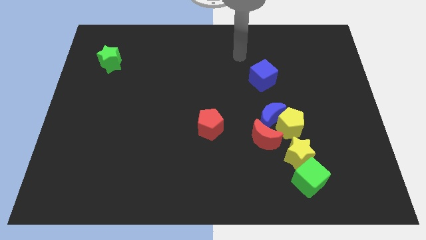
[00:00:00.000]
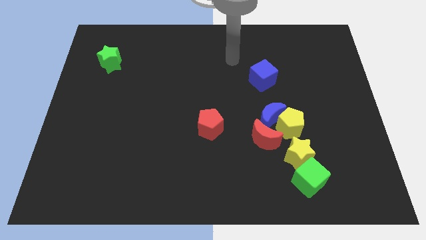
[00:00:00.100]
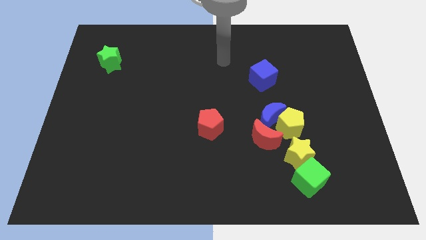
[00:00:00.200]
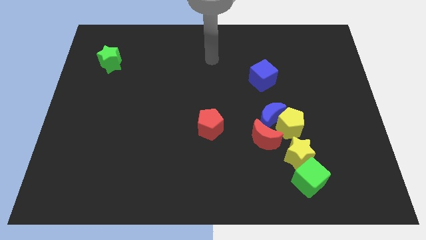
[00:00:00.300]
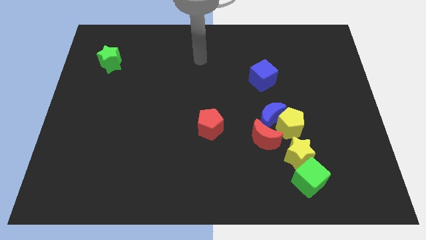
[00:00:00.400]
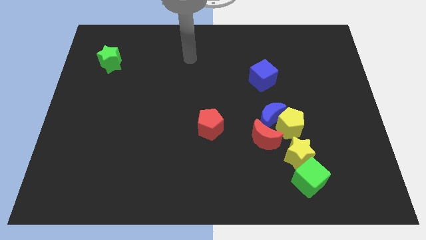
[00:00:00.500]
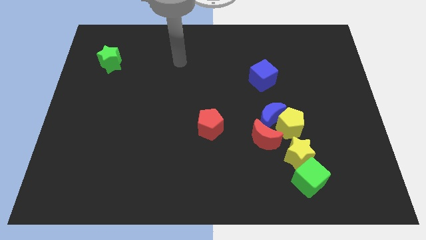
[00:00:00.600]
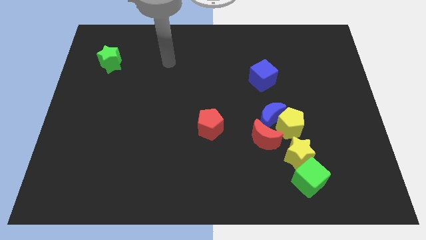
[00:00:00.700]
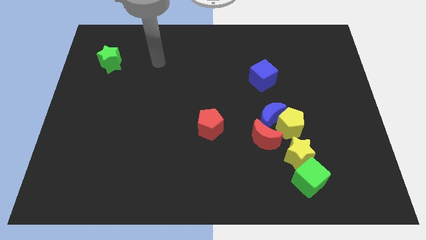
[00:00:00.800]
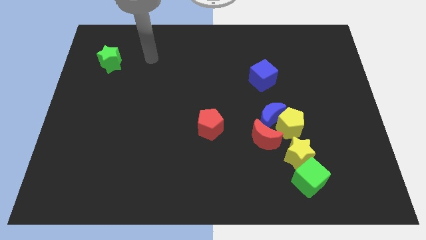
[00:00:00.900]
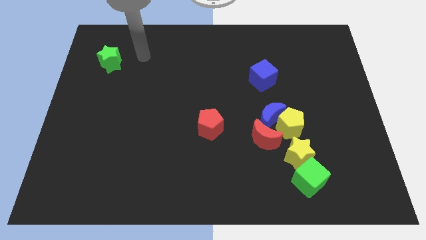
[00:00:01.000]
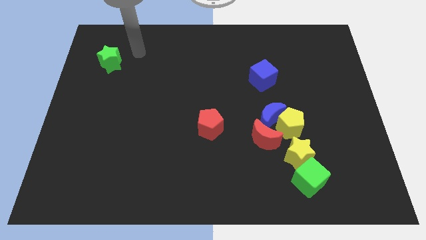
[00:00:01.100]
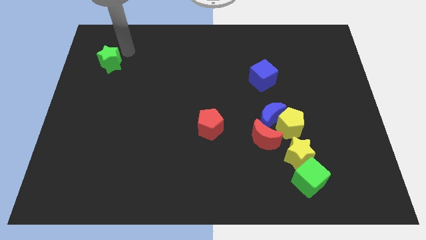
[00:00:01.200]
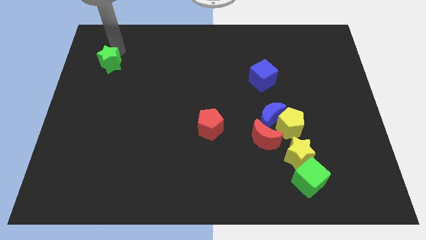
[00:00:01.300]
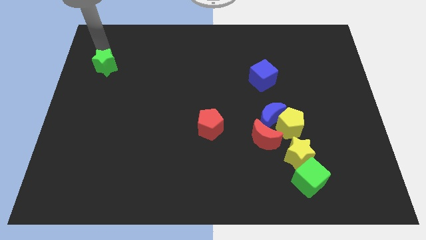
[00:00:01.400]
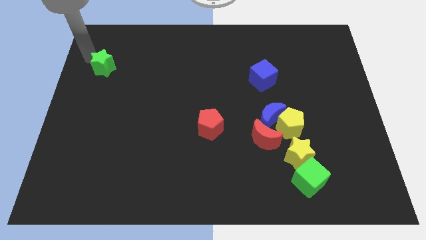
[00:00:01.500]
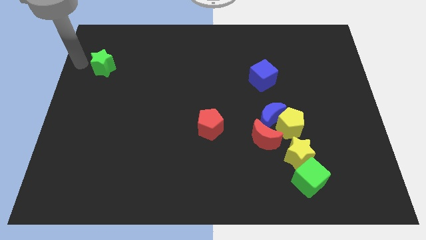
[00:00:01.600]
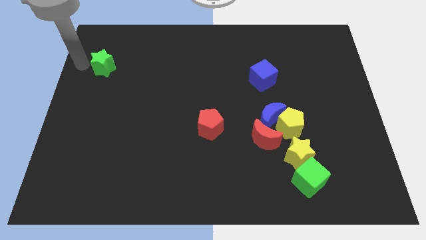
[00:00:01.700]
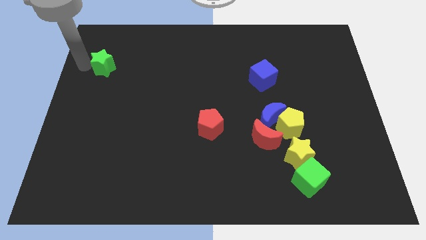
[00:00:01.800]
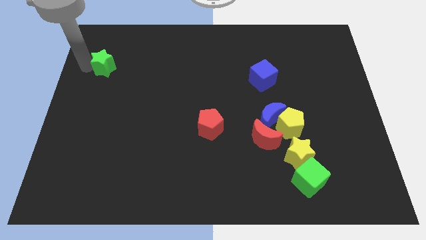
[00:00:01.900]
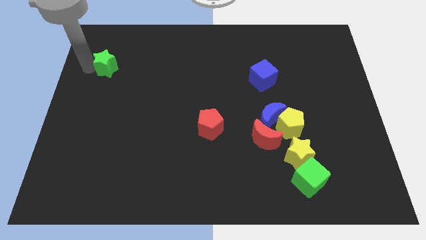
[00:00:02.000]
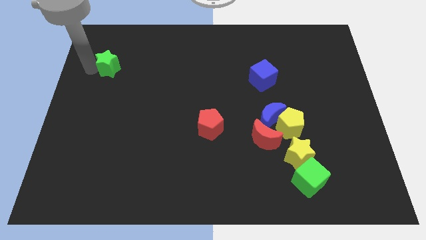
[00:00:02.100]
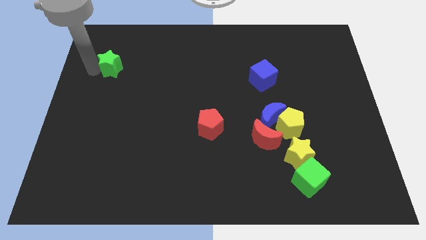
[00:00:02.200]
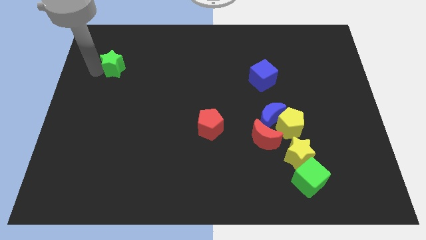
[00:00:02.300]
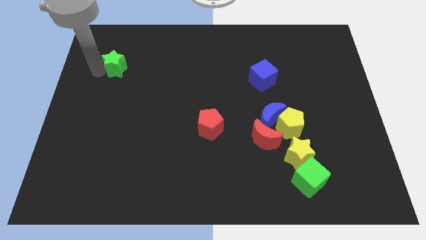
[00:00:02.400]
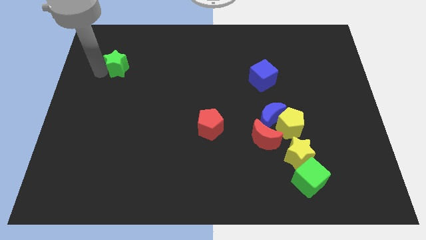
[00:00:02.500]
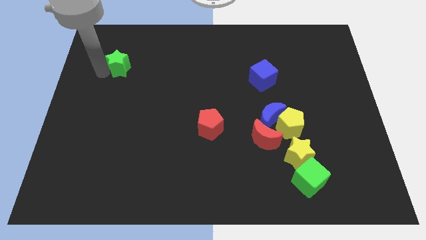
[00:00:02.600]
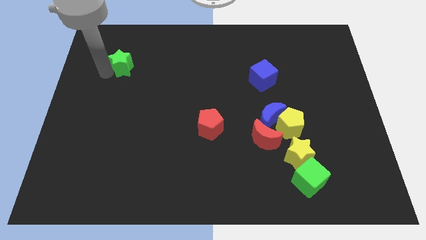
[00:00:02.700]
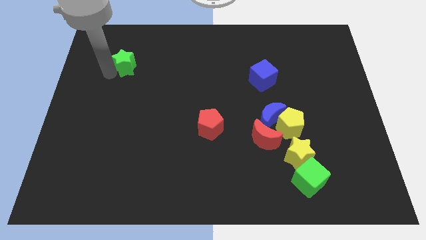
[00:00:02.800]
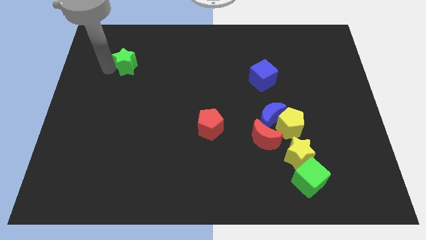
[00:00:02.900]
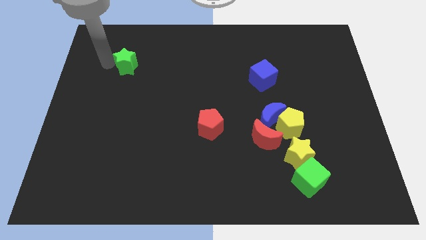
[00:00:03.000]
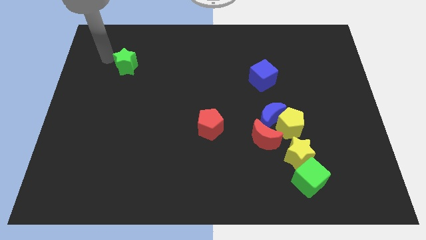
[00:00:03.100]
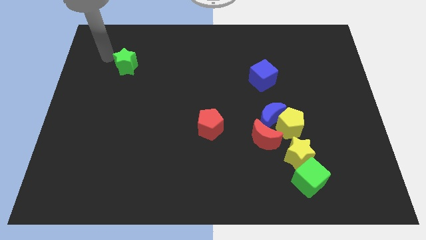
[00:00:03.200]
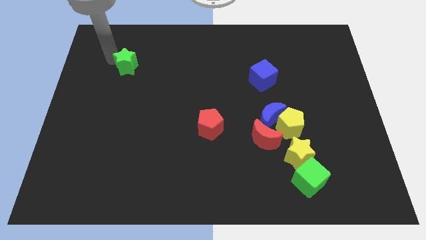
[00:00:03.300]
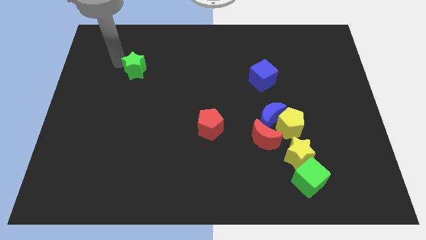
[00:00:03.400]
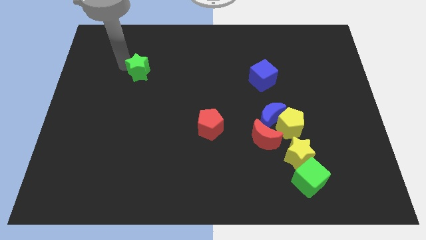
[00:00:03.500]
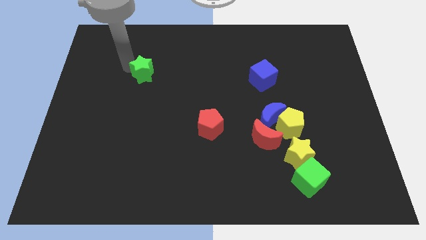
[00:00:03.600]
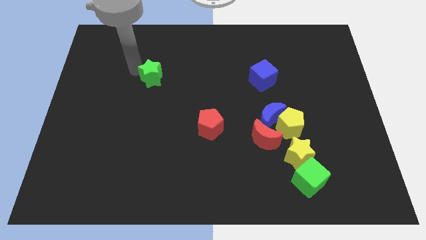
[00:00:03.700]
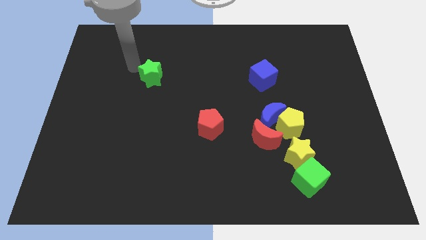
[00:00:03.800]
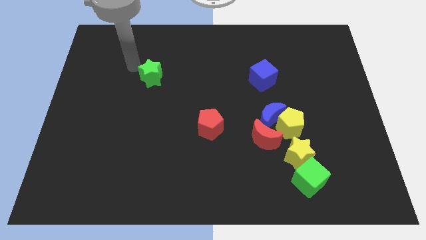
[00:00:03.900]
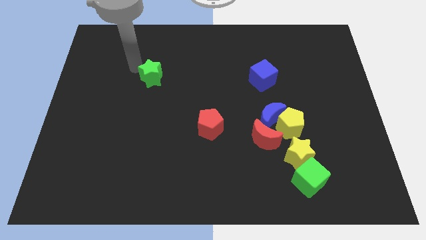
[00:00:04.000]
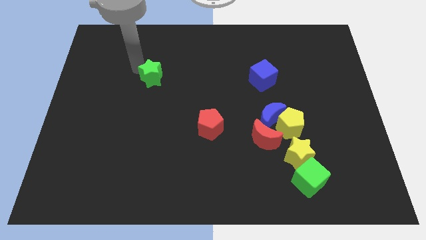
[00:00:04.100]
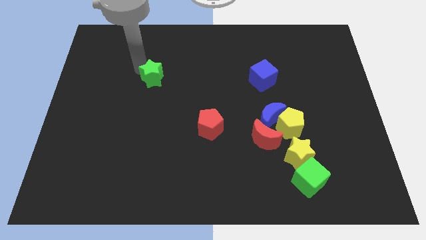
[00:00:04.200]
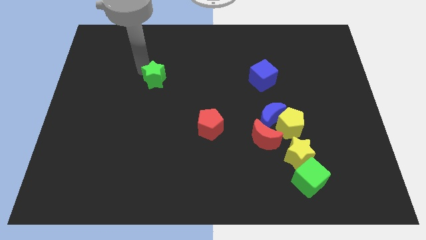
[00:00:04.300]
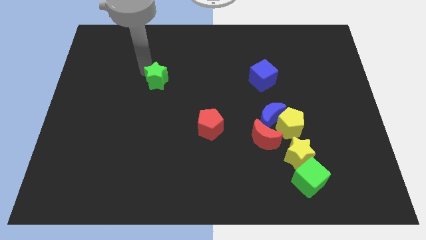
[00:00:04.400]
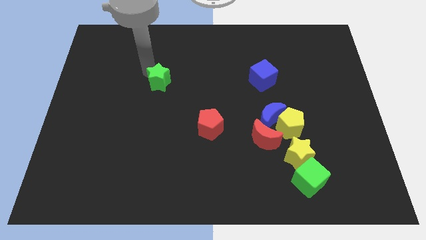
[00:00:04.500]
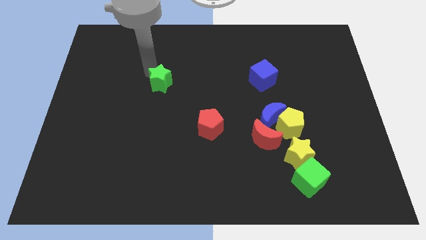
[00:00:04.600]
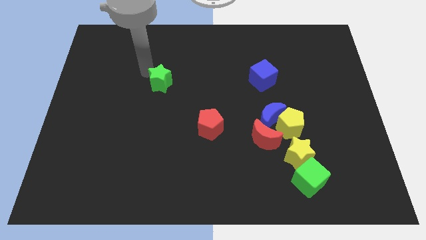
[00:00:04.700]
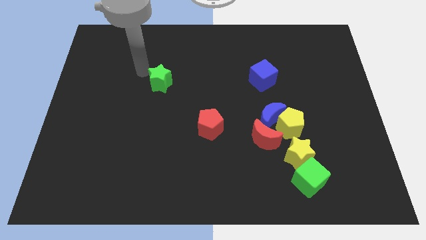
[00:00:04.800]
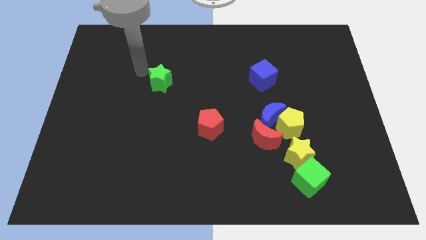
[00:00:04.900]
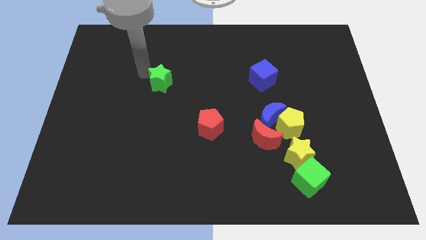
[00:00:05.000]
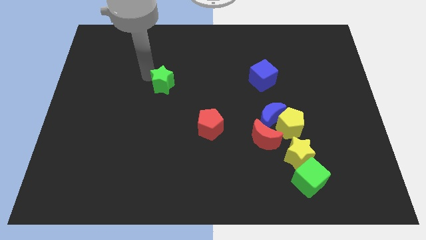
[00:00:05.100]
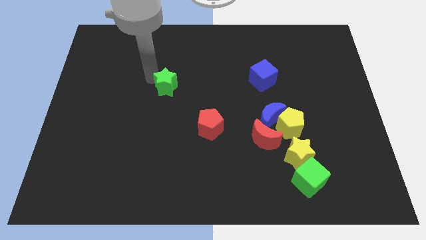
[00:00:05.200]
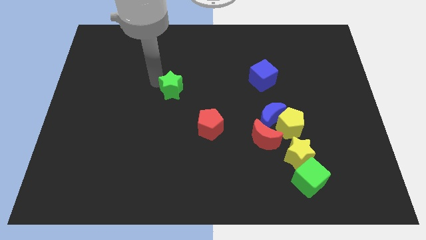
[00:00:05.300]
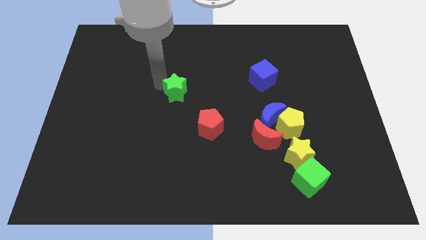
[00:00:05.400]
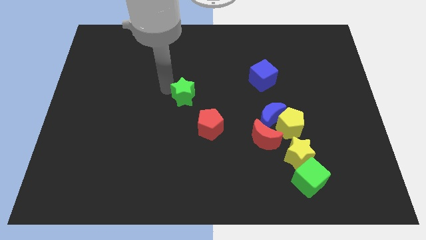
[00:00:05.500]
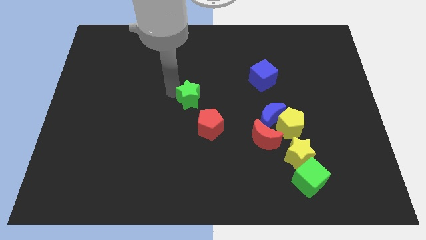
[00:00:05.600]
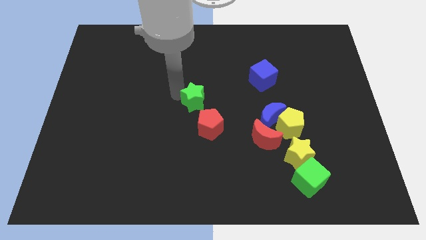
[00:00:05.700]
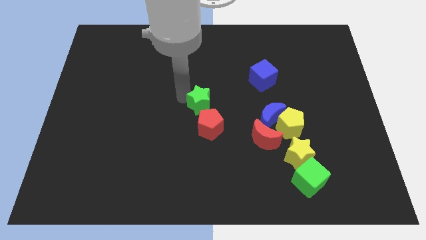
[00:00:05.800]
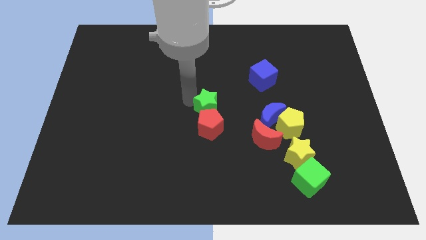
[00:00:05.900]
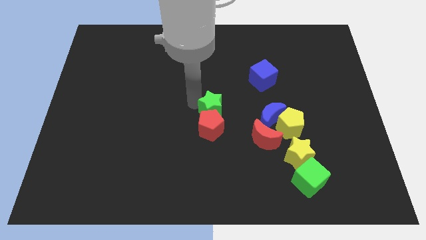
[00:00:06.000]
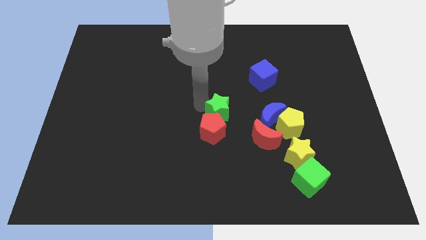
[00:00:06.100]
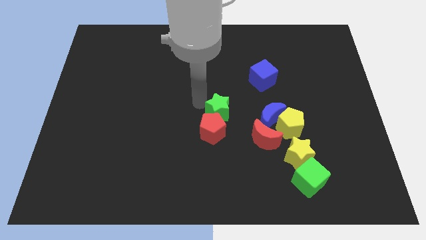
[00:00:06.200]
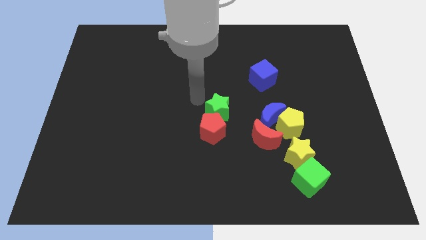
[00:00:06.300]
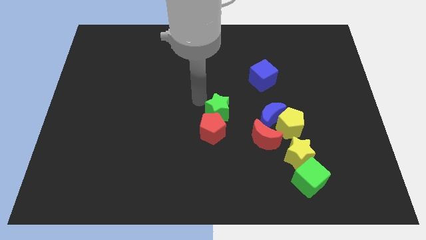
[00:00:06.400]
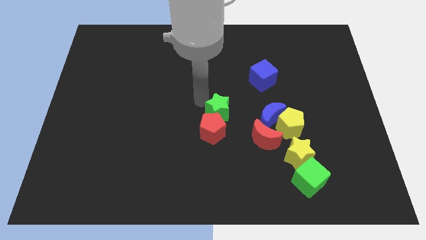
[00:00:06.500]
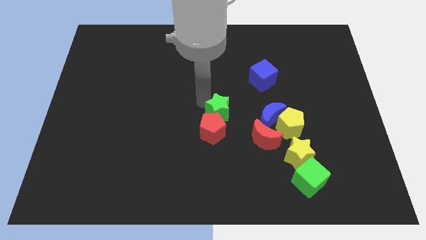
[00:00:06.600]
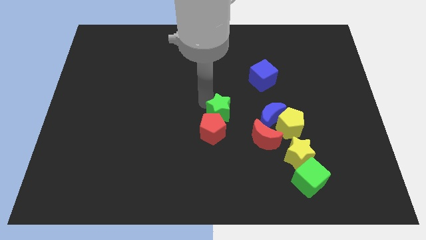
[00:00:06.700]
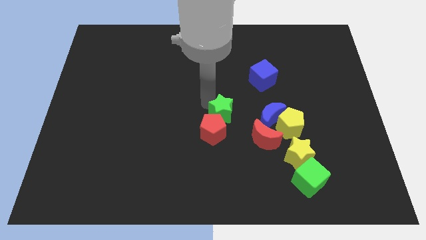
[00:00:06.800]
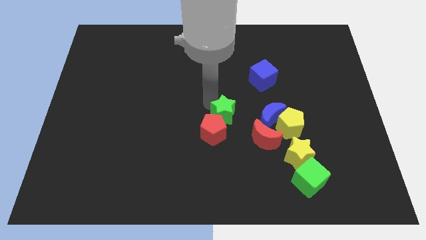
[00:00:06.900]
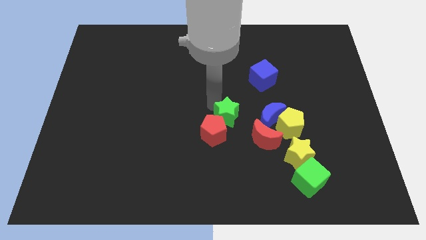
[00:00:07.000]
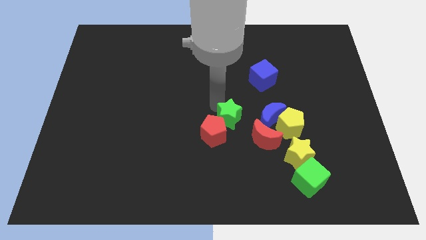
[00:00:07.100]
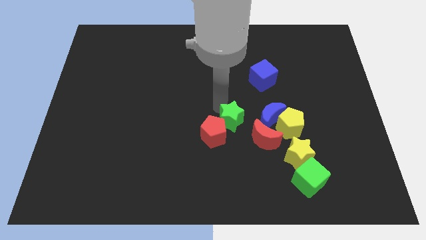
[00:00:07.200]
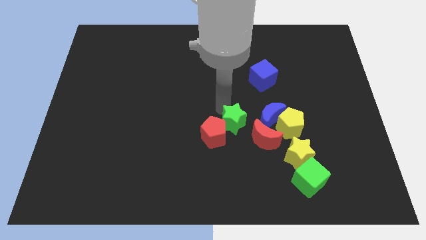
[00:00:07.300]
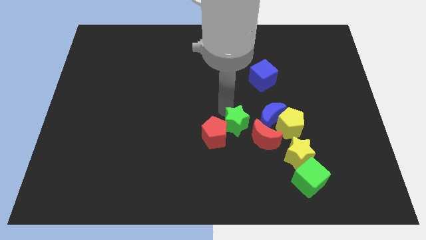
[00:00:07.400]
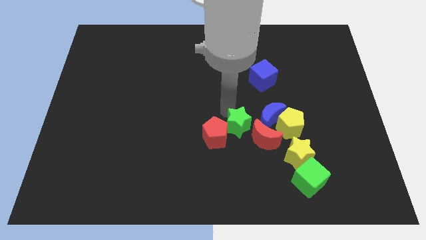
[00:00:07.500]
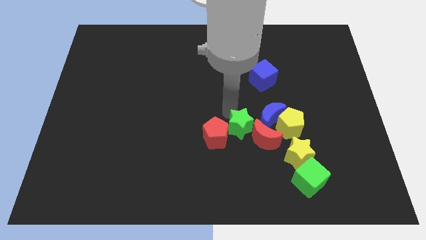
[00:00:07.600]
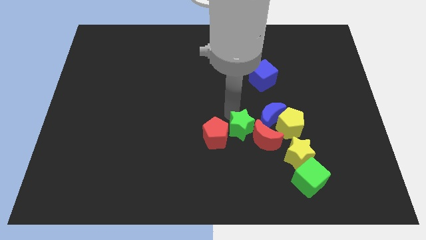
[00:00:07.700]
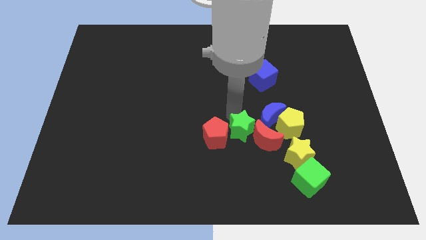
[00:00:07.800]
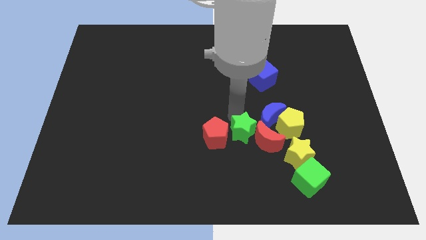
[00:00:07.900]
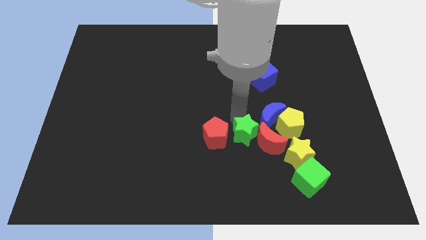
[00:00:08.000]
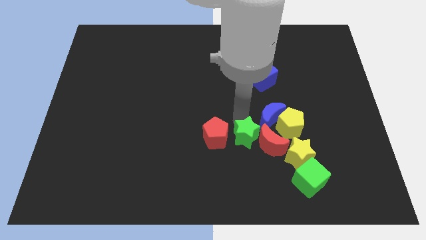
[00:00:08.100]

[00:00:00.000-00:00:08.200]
move the green star to the left of the yellow star
